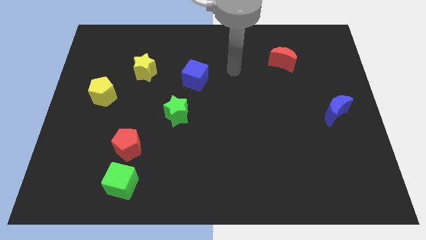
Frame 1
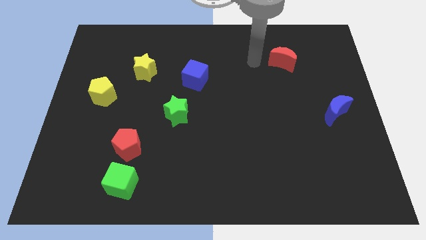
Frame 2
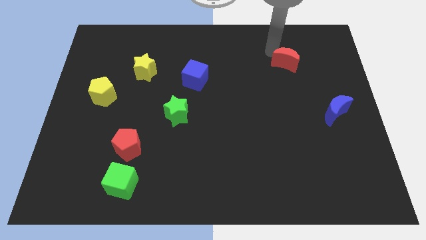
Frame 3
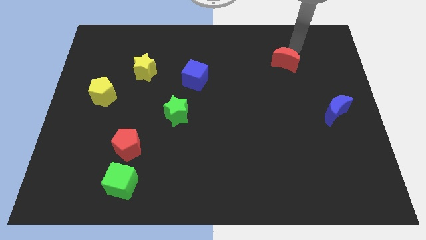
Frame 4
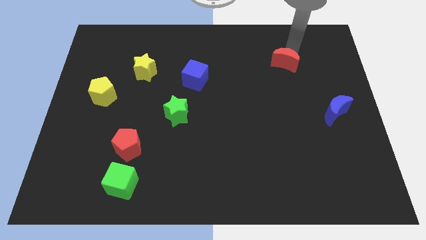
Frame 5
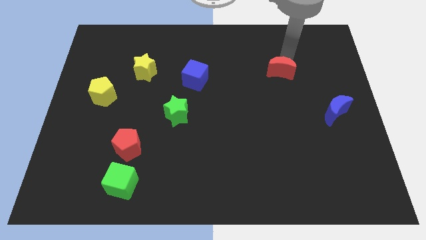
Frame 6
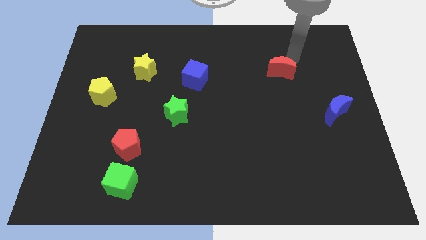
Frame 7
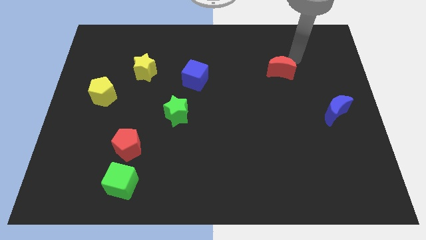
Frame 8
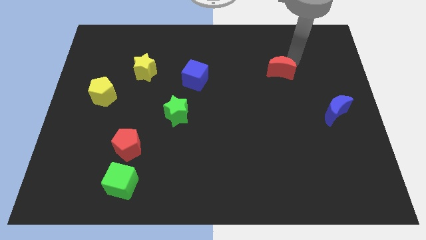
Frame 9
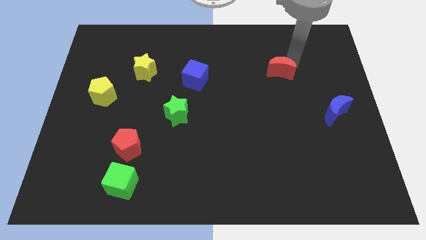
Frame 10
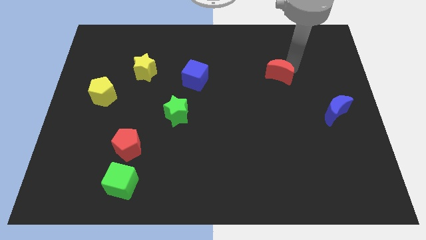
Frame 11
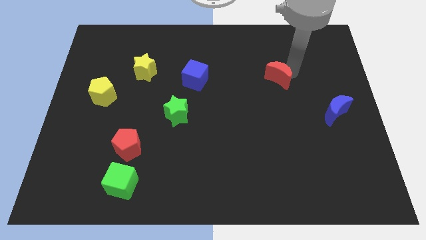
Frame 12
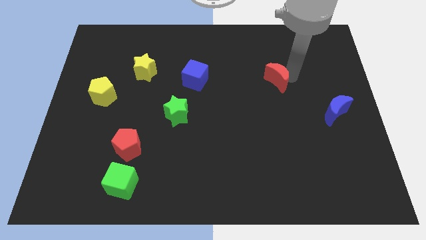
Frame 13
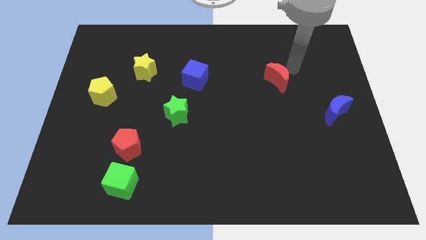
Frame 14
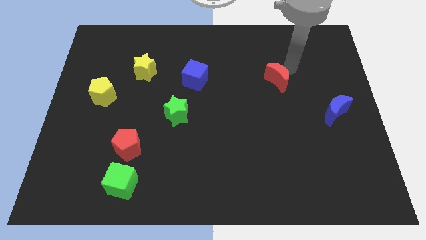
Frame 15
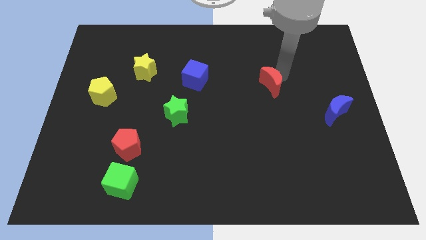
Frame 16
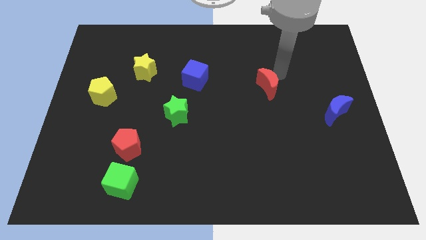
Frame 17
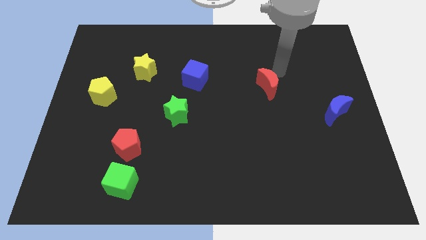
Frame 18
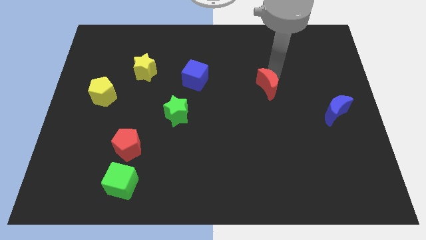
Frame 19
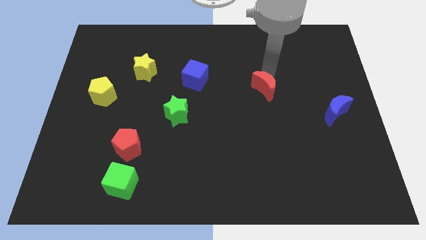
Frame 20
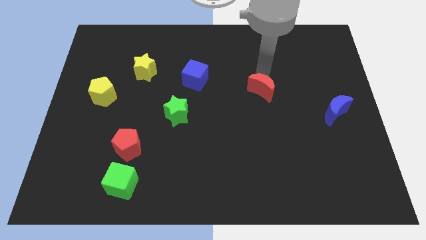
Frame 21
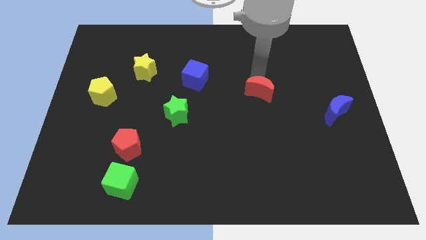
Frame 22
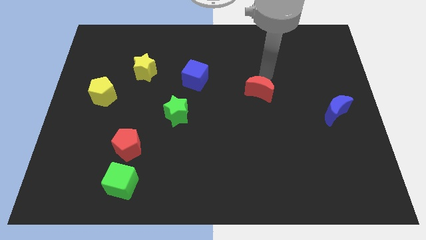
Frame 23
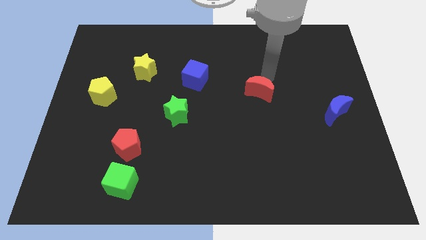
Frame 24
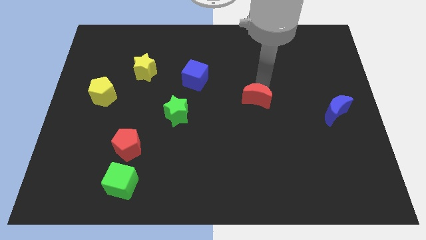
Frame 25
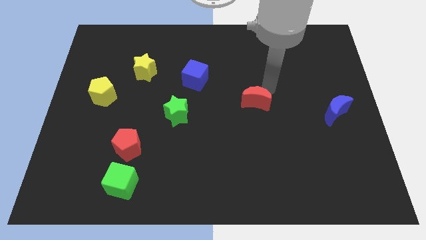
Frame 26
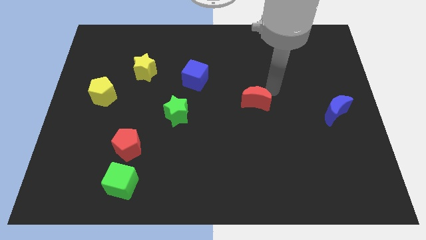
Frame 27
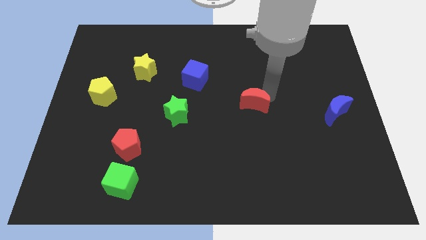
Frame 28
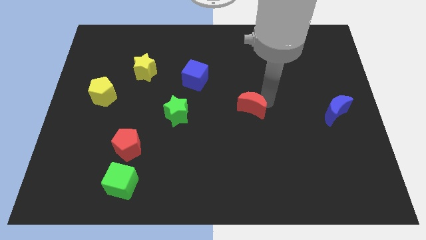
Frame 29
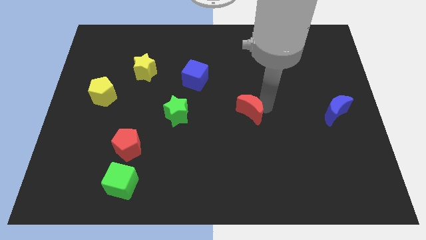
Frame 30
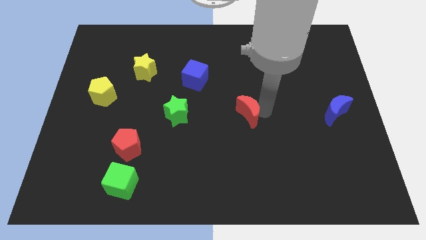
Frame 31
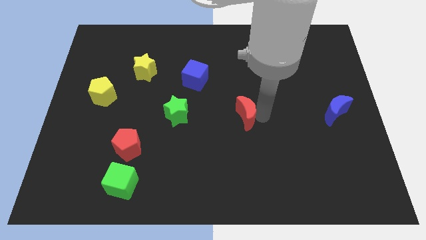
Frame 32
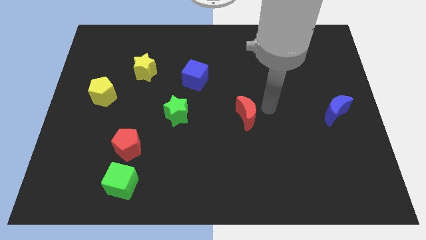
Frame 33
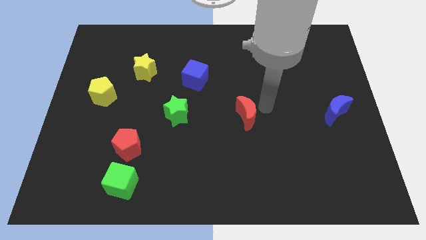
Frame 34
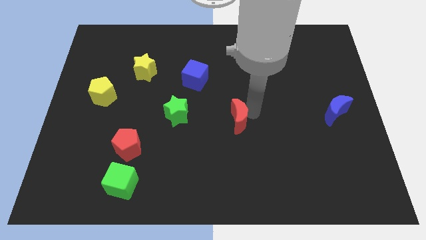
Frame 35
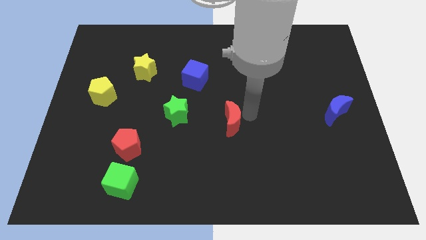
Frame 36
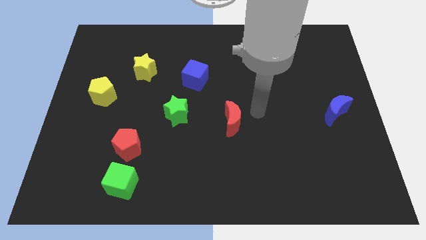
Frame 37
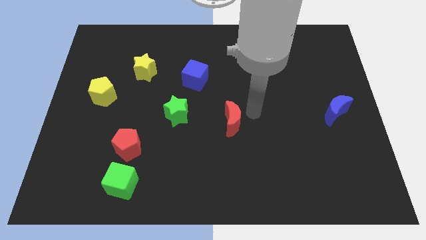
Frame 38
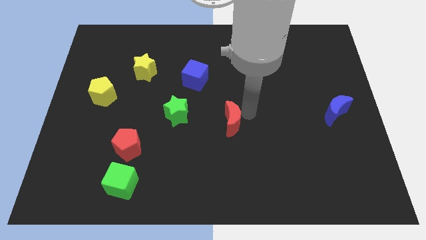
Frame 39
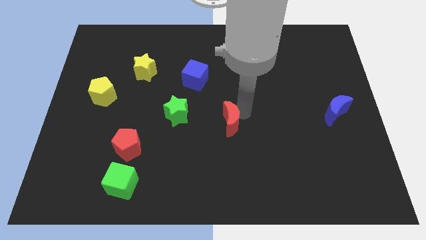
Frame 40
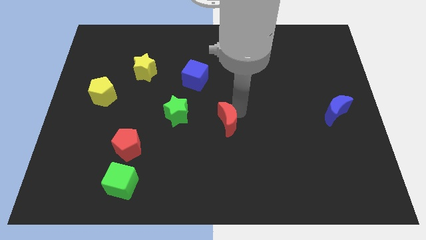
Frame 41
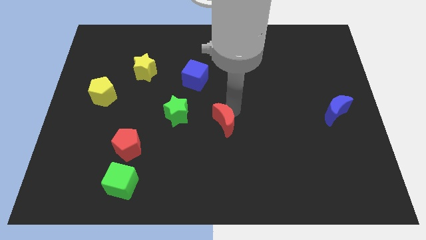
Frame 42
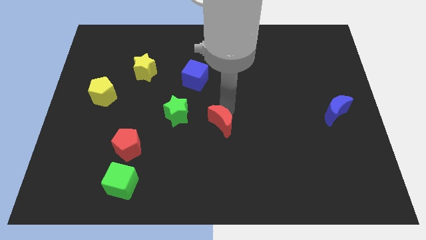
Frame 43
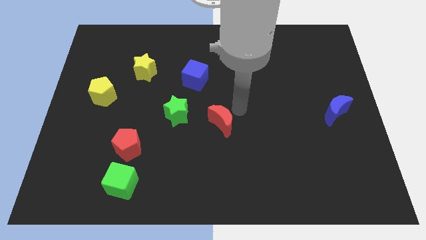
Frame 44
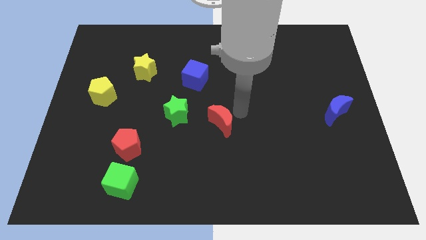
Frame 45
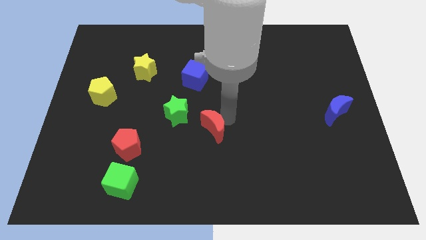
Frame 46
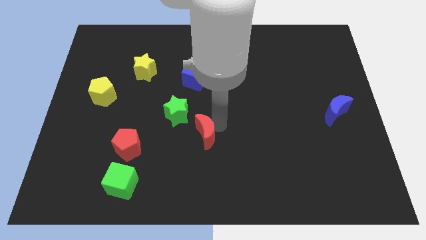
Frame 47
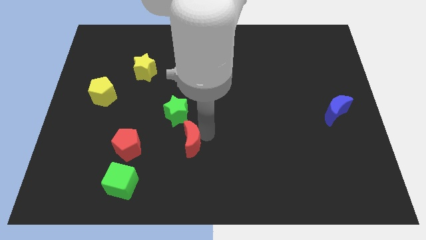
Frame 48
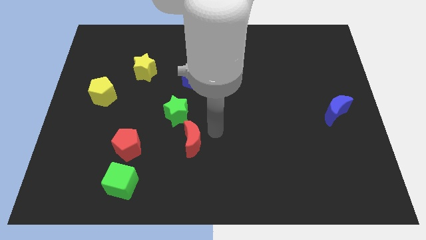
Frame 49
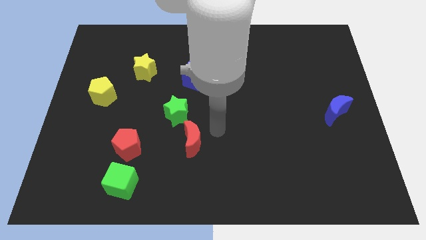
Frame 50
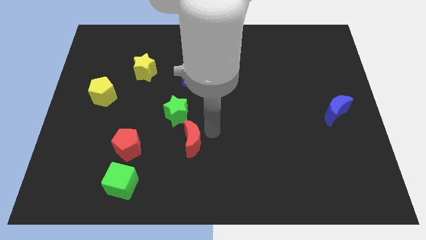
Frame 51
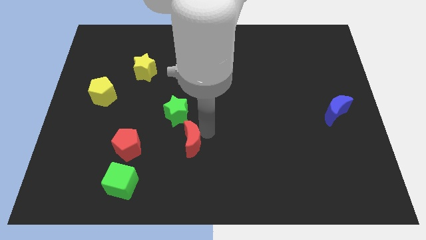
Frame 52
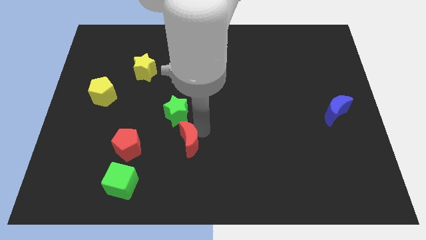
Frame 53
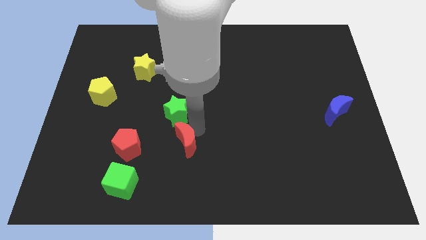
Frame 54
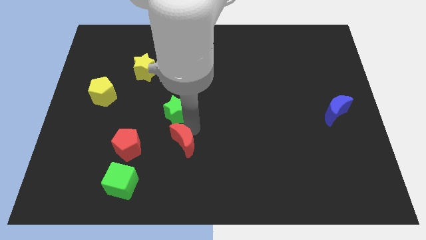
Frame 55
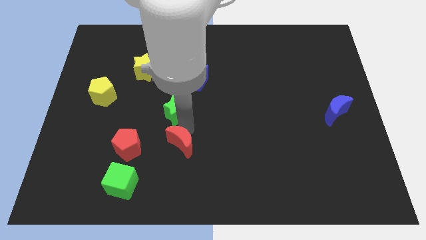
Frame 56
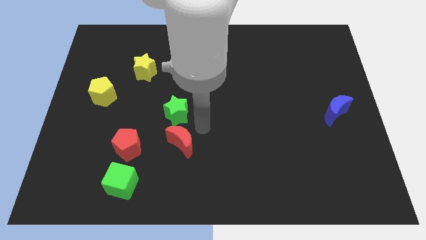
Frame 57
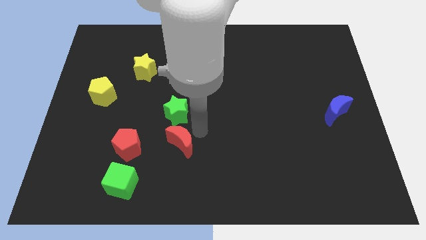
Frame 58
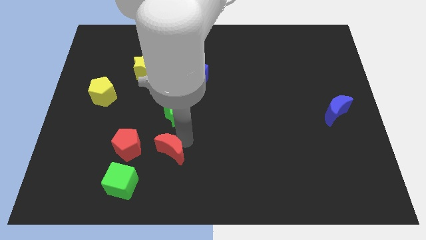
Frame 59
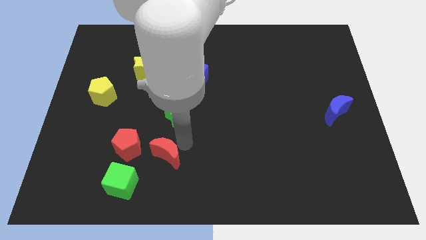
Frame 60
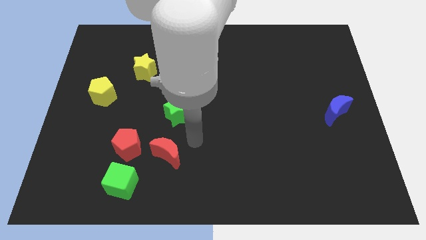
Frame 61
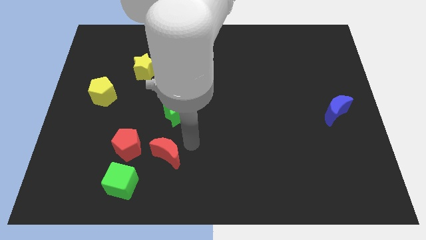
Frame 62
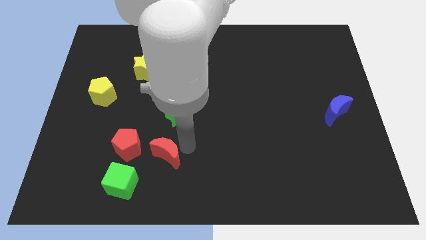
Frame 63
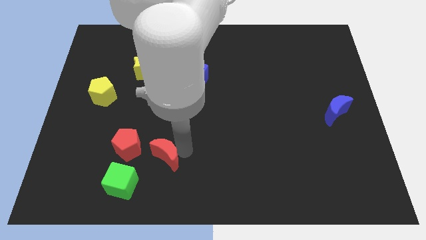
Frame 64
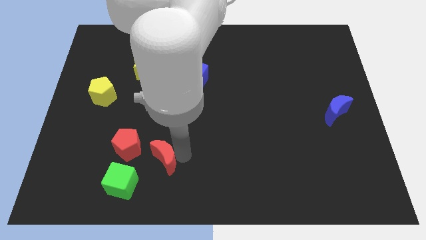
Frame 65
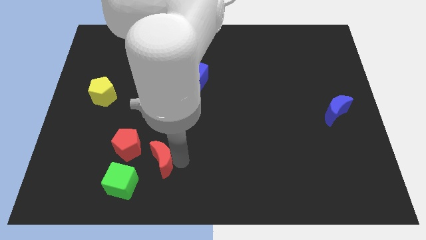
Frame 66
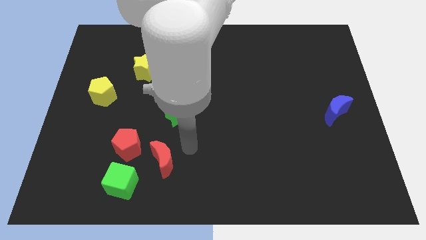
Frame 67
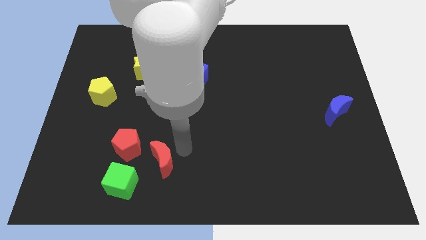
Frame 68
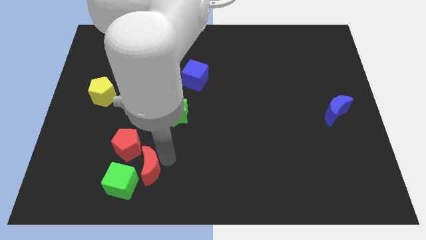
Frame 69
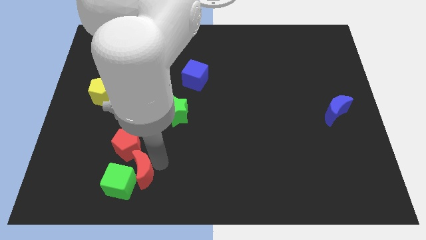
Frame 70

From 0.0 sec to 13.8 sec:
move the red moon close to the green cube

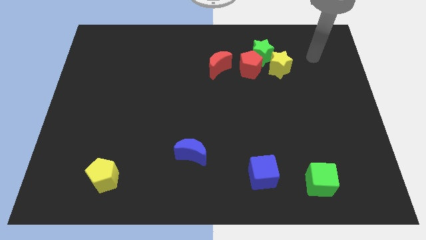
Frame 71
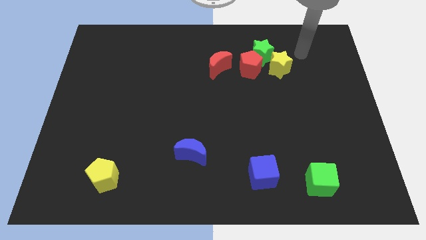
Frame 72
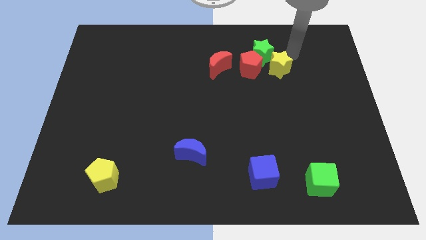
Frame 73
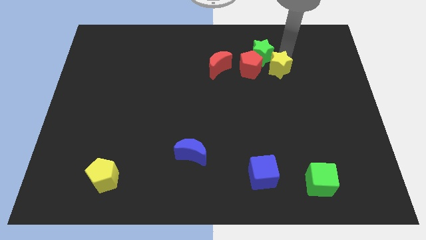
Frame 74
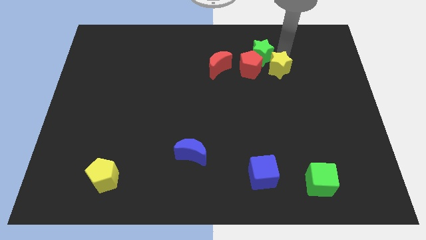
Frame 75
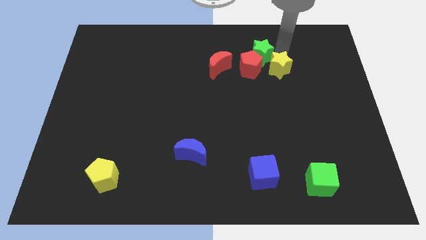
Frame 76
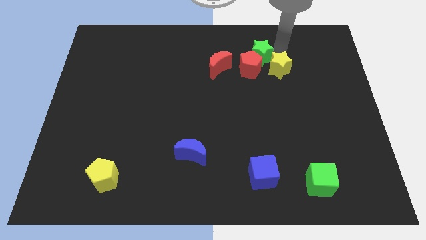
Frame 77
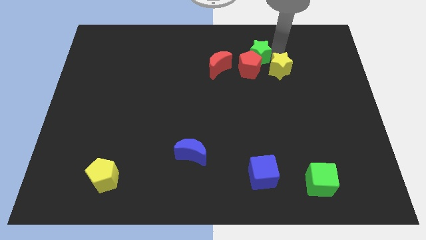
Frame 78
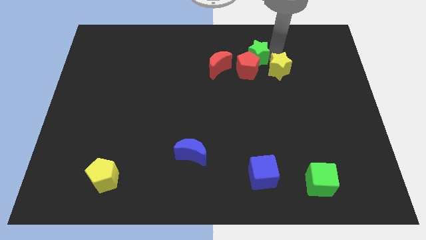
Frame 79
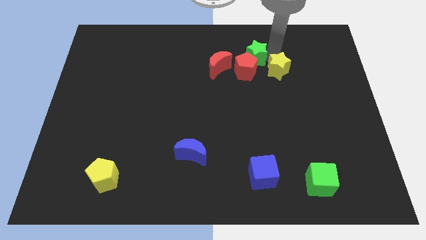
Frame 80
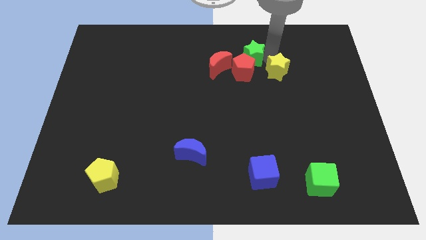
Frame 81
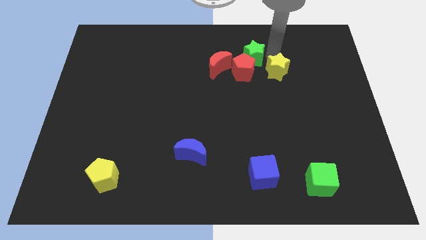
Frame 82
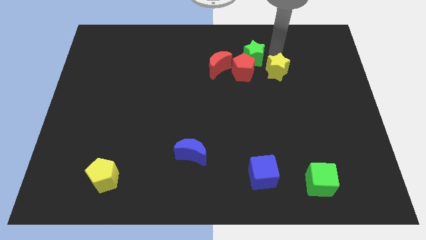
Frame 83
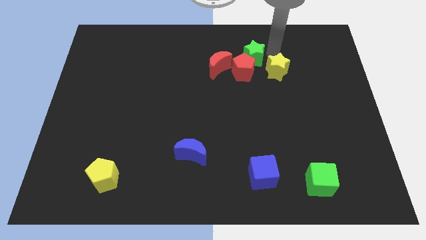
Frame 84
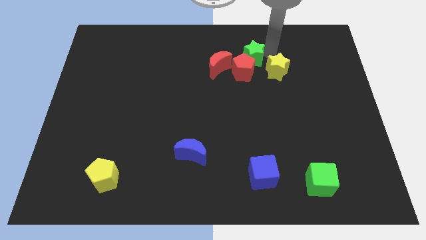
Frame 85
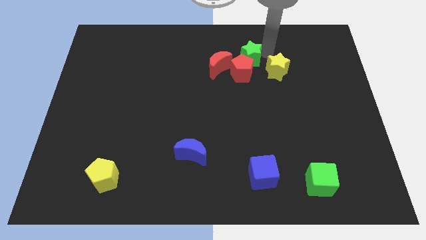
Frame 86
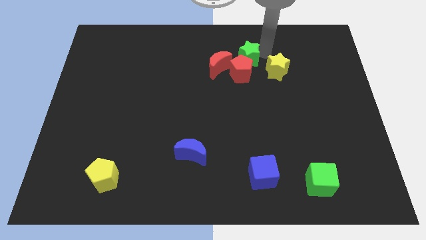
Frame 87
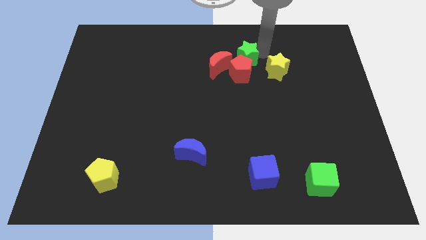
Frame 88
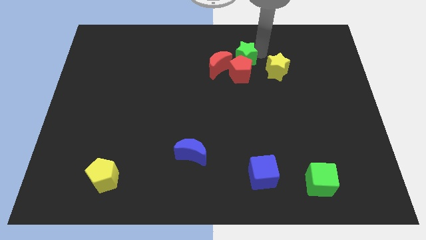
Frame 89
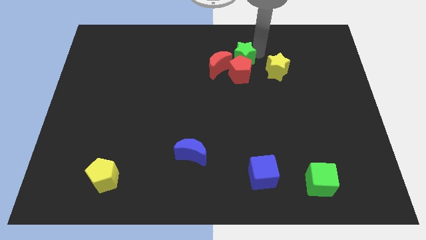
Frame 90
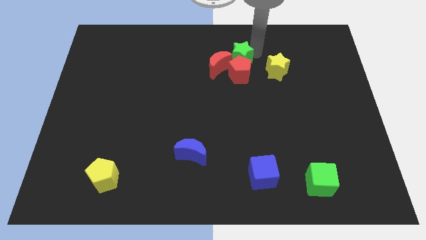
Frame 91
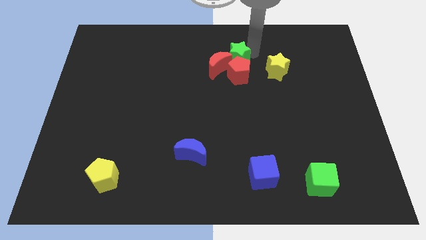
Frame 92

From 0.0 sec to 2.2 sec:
put the green star close to the red moon
